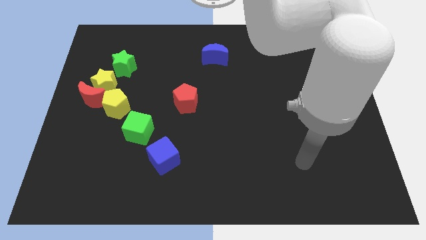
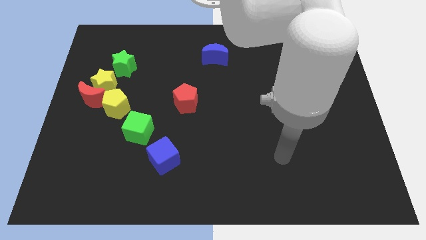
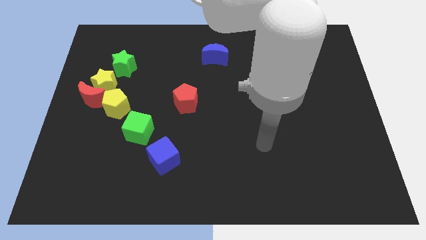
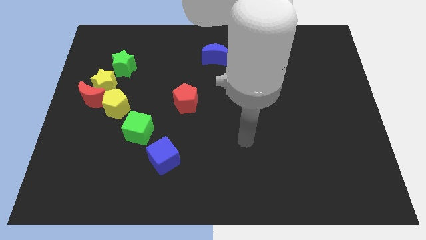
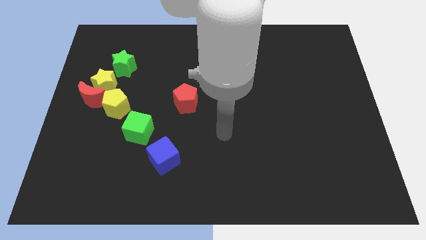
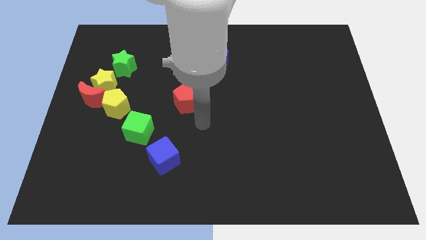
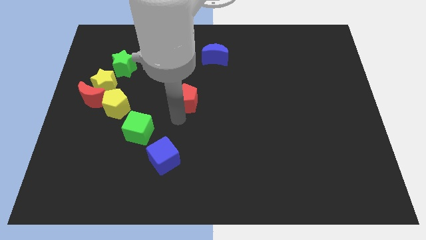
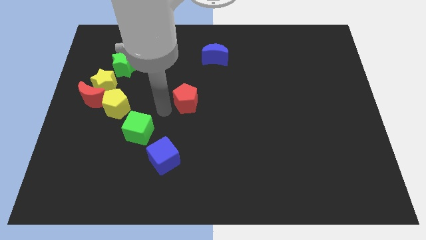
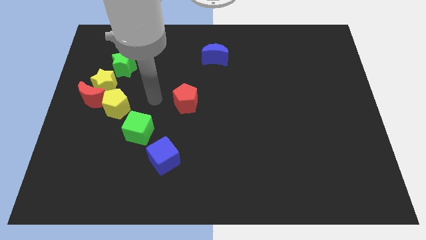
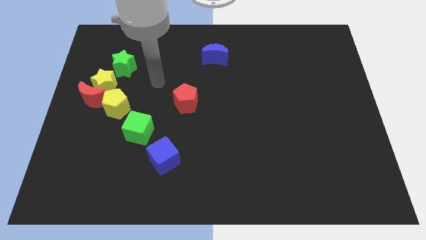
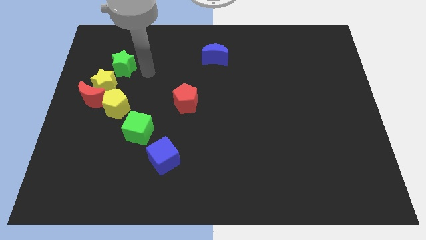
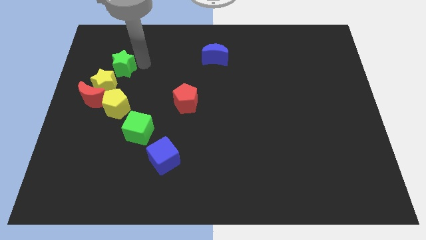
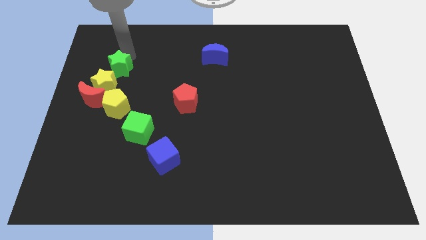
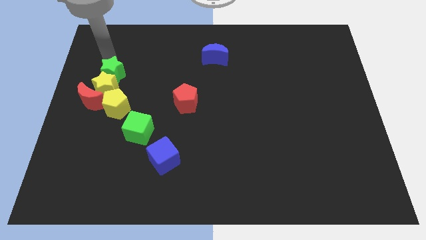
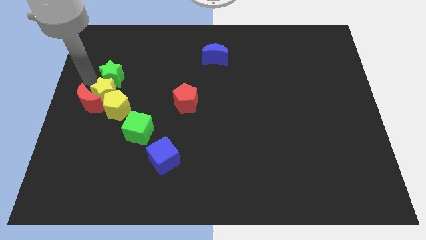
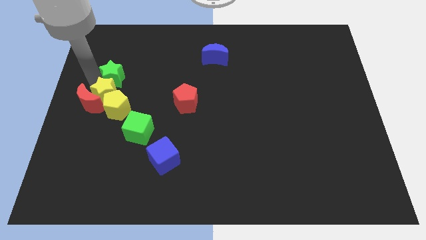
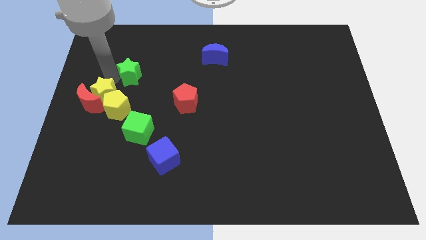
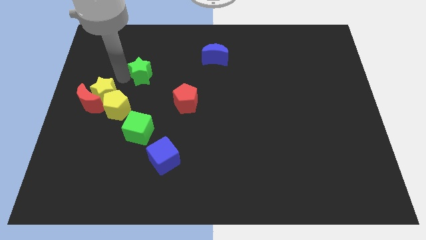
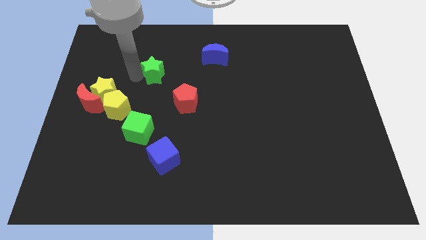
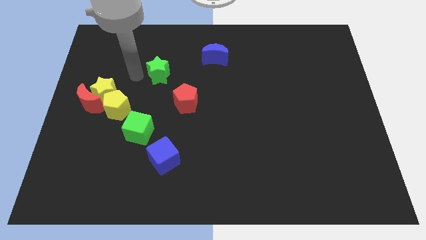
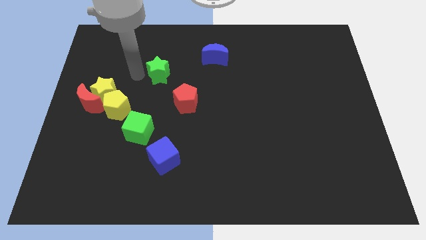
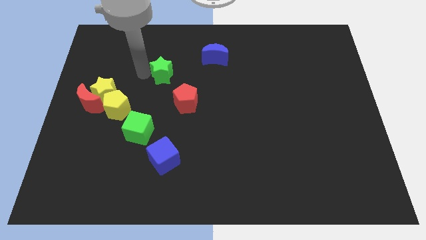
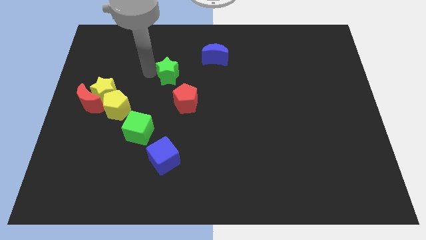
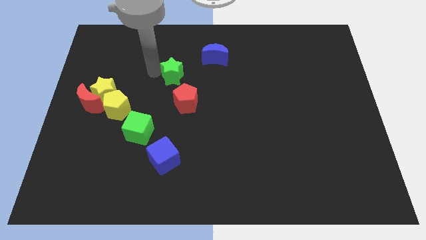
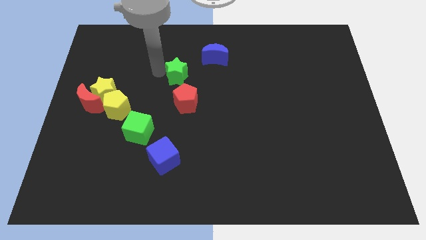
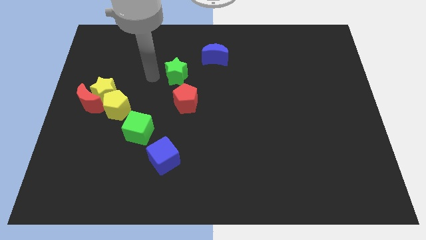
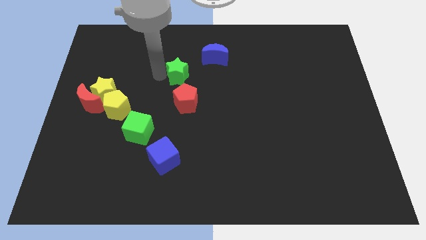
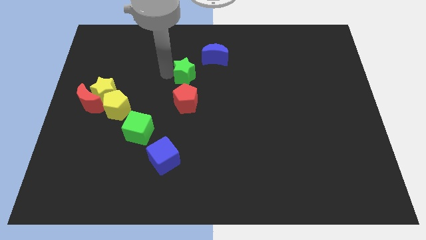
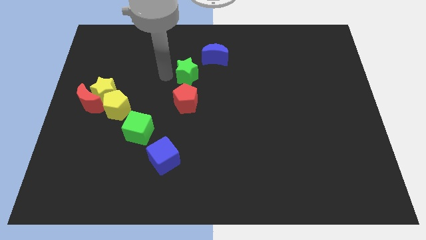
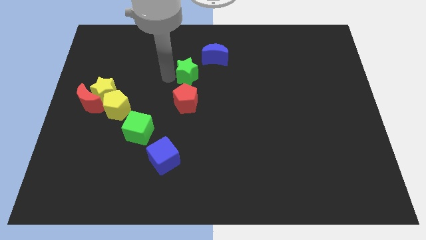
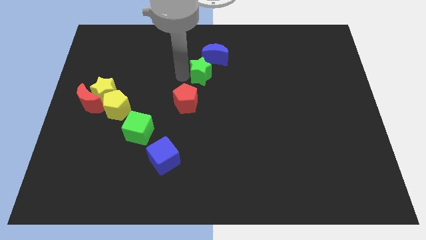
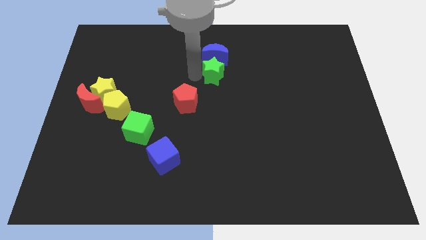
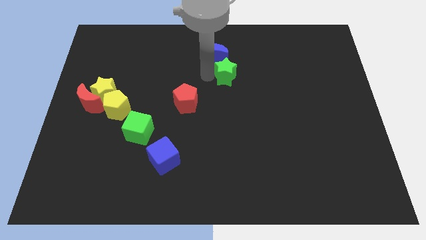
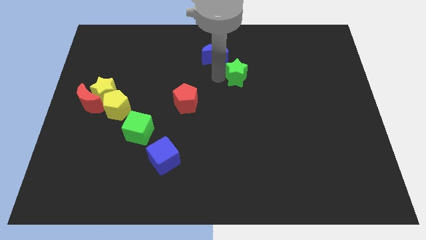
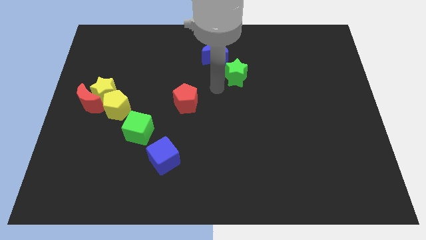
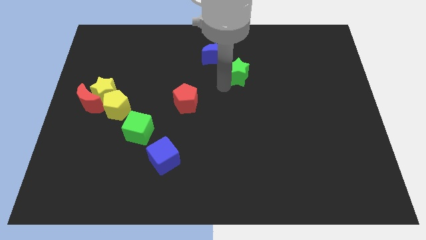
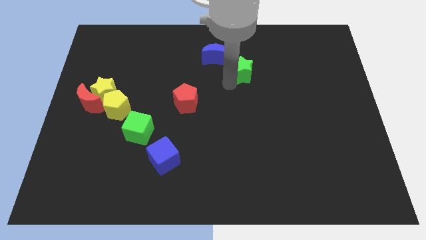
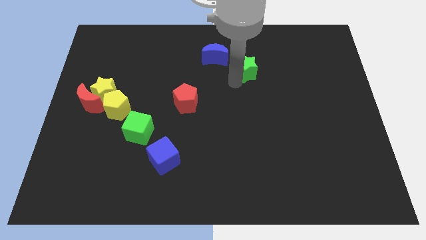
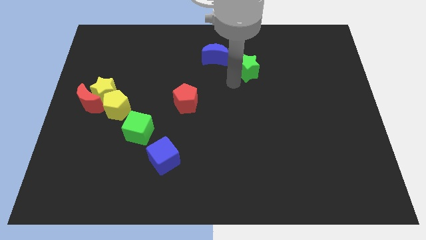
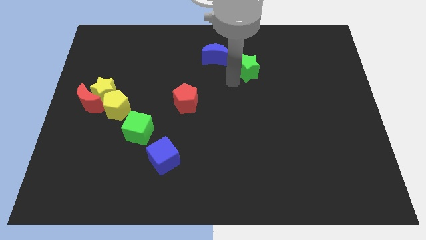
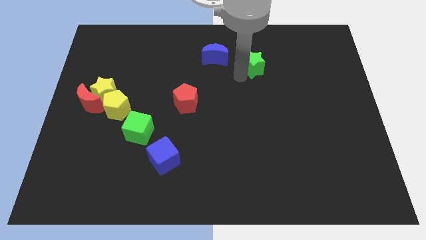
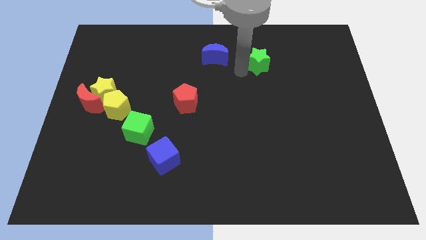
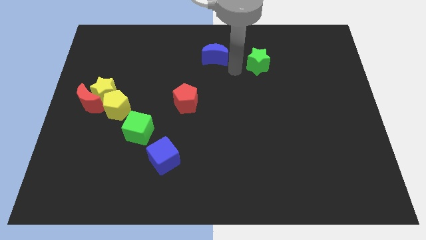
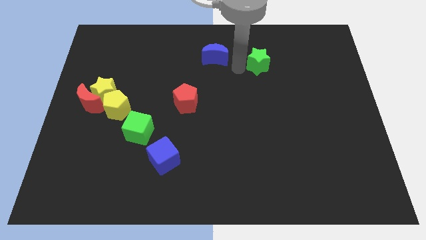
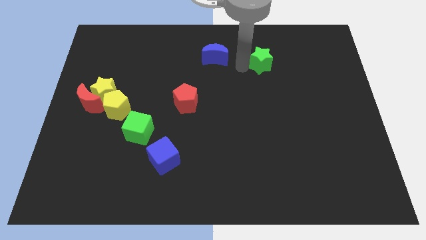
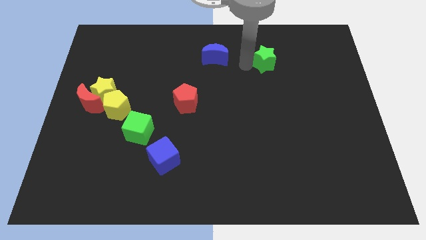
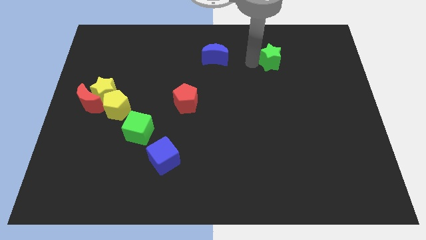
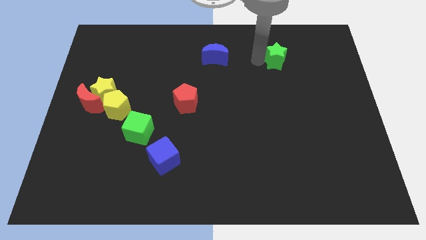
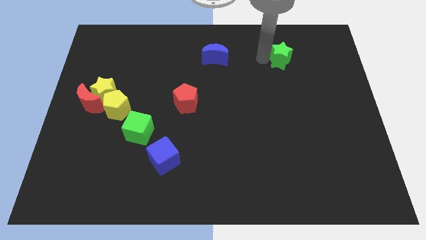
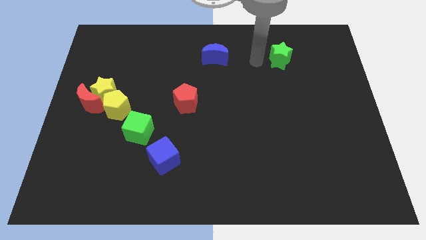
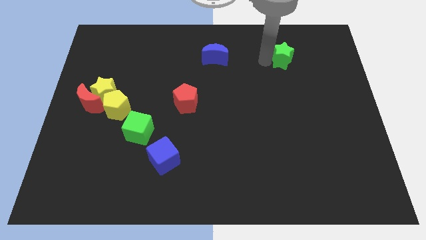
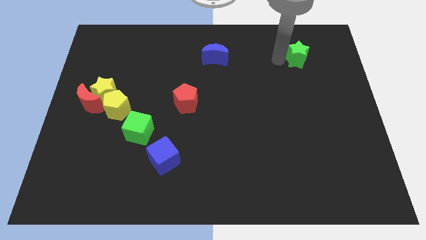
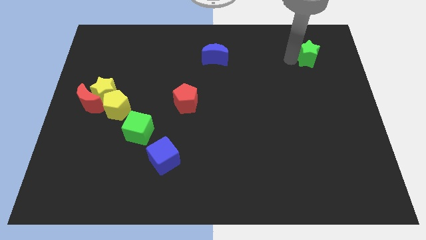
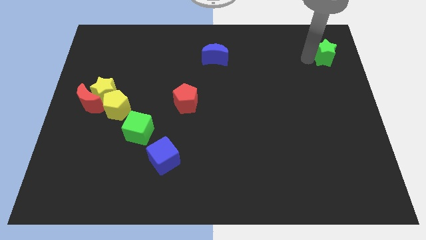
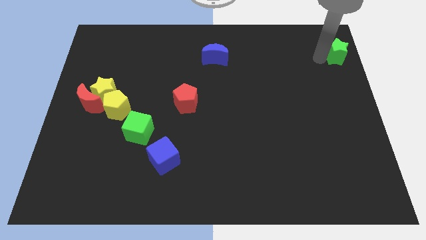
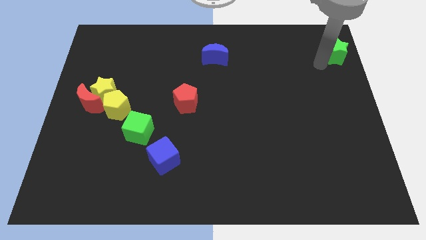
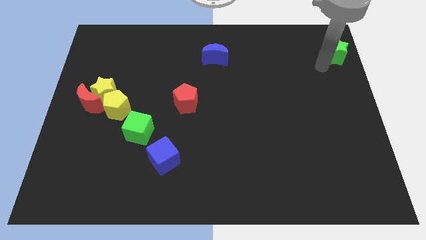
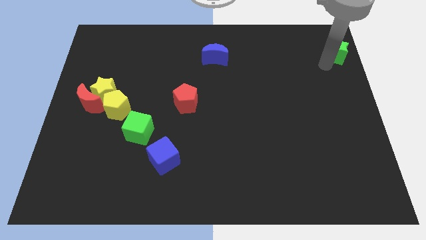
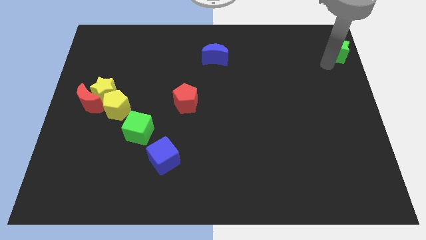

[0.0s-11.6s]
move the green star to the top right of the board
